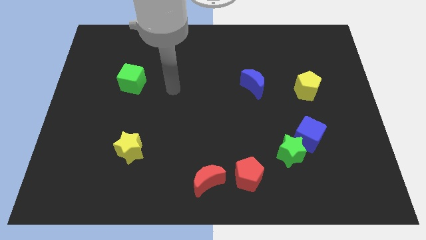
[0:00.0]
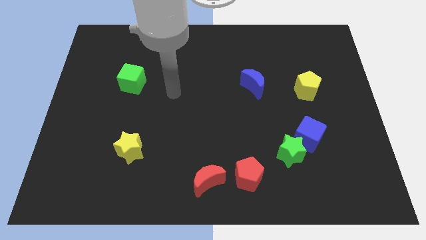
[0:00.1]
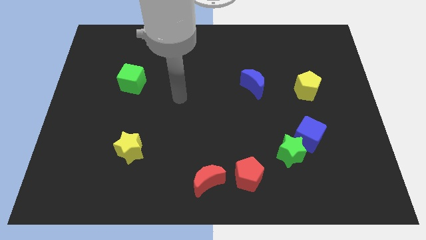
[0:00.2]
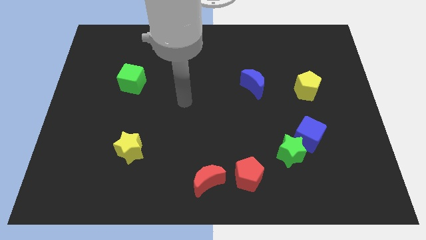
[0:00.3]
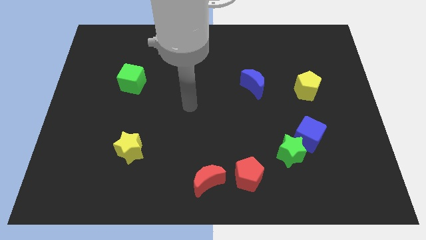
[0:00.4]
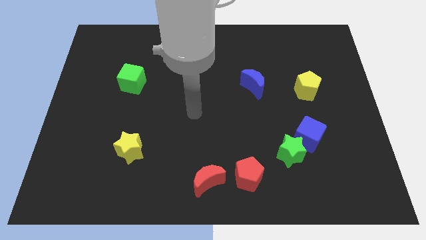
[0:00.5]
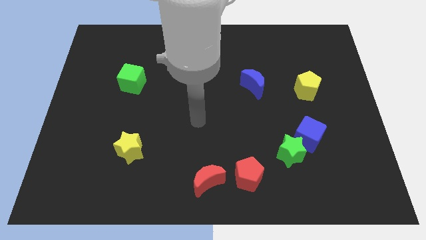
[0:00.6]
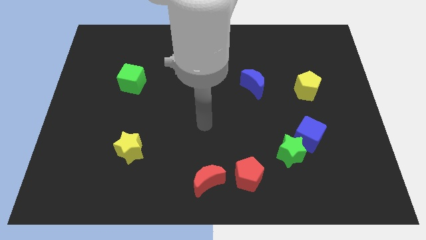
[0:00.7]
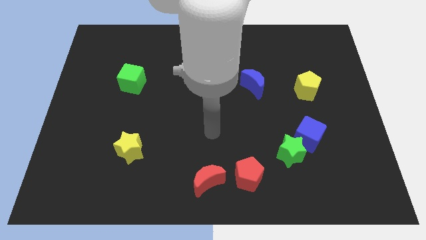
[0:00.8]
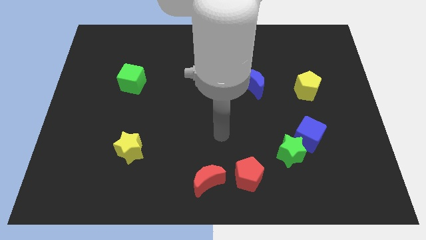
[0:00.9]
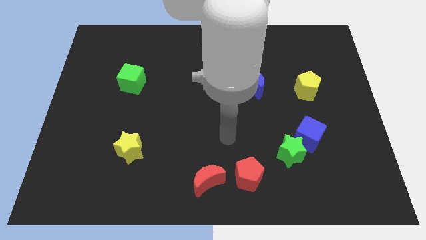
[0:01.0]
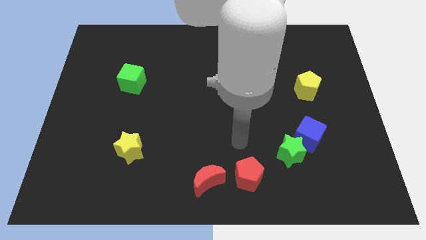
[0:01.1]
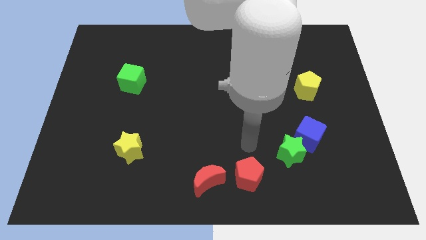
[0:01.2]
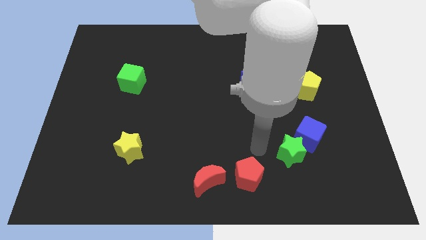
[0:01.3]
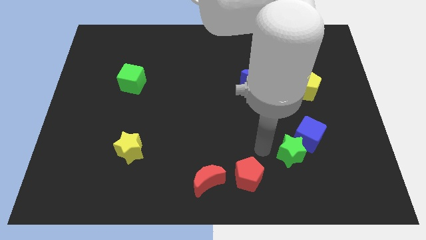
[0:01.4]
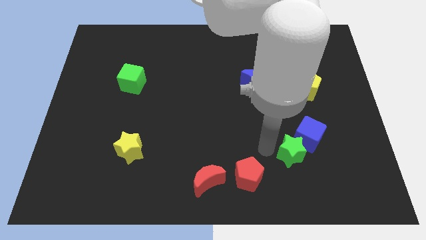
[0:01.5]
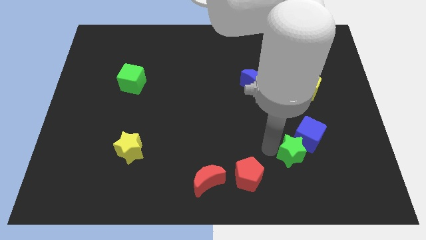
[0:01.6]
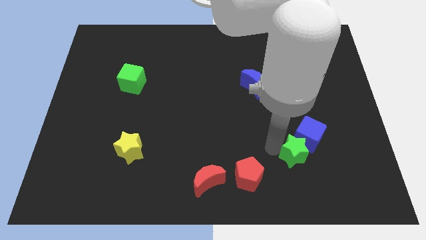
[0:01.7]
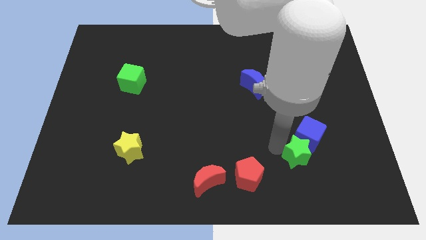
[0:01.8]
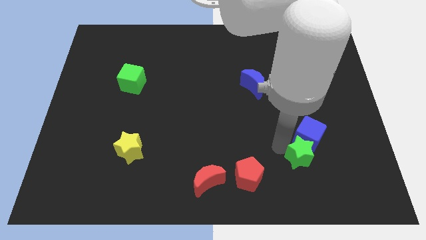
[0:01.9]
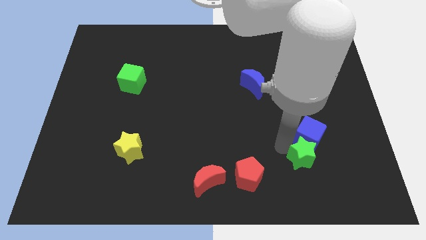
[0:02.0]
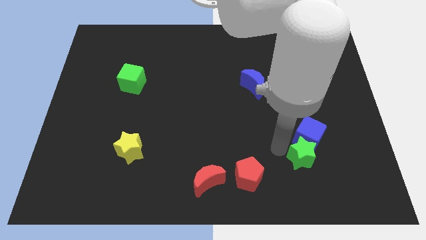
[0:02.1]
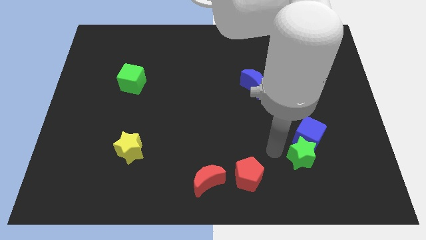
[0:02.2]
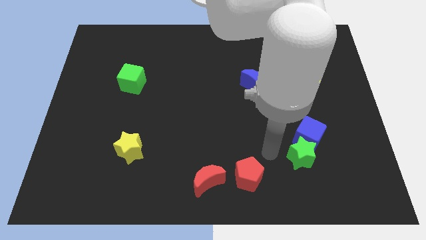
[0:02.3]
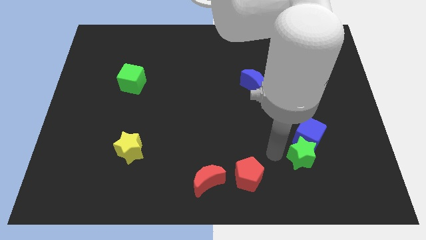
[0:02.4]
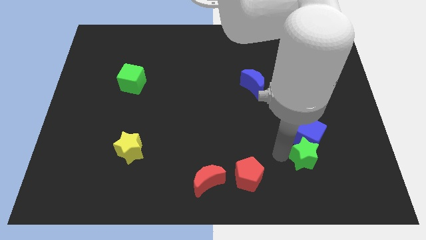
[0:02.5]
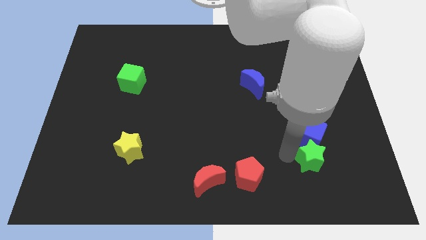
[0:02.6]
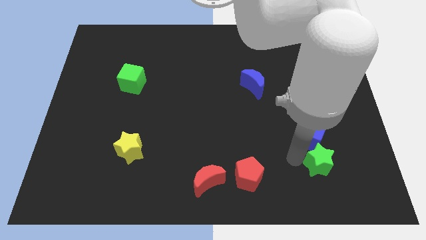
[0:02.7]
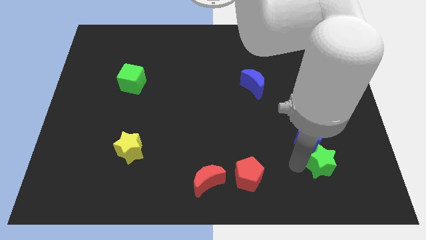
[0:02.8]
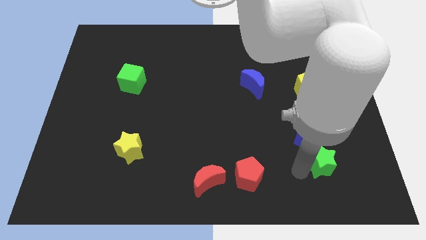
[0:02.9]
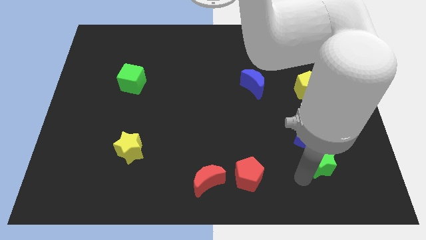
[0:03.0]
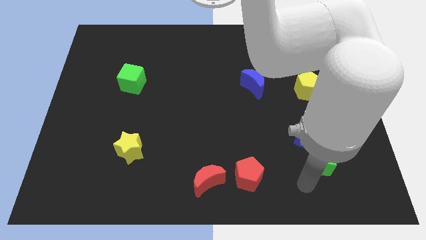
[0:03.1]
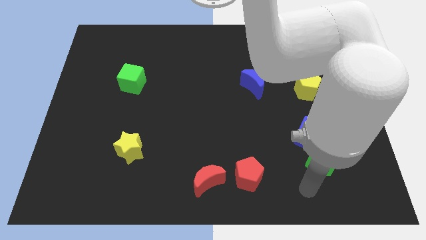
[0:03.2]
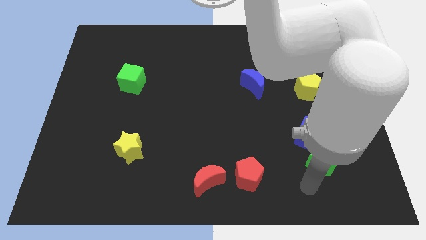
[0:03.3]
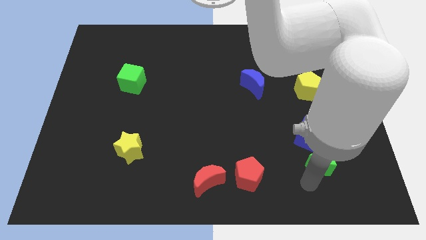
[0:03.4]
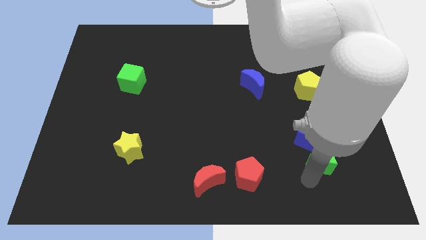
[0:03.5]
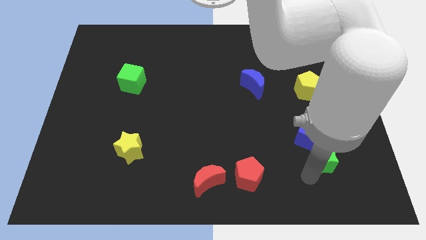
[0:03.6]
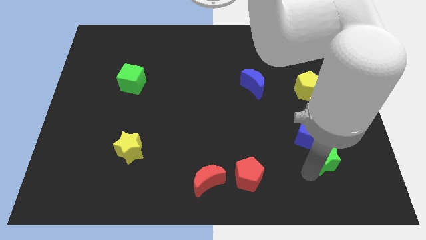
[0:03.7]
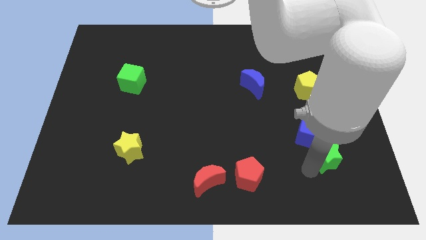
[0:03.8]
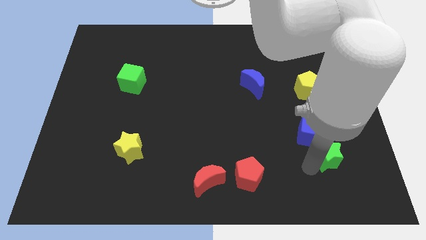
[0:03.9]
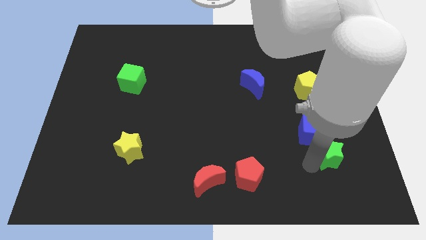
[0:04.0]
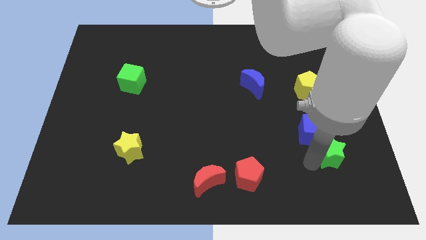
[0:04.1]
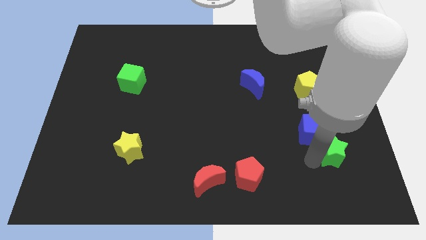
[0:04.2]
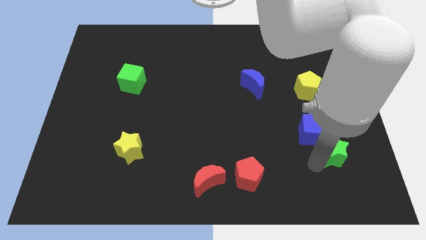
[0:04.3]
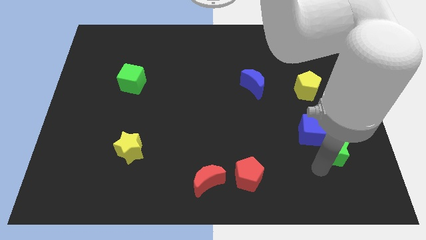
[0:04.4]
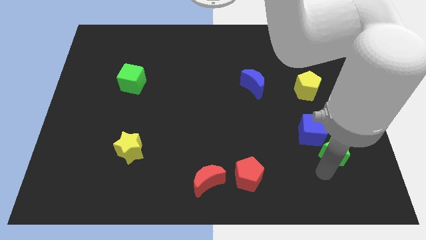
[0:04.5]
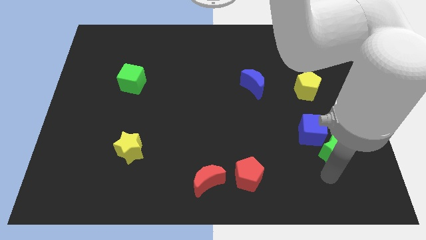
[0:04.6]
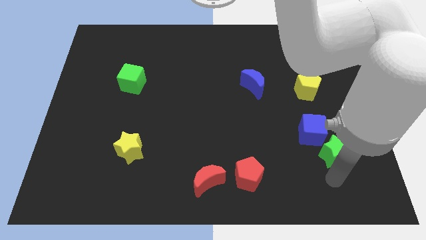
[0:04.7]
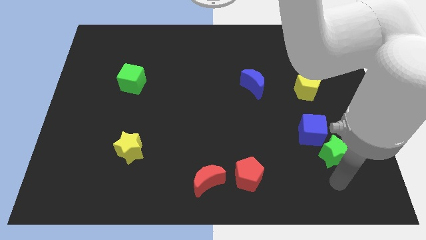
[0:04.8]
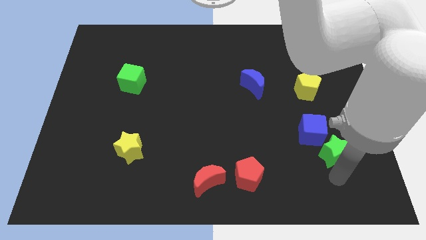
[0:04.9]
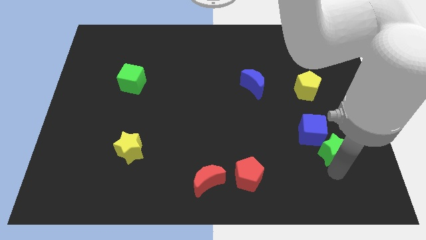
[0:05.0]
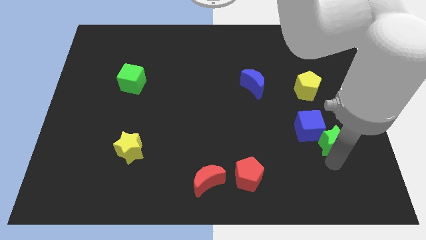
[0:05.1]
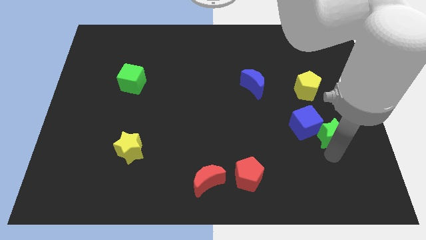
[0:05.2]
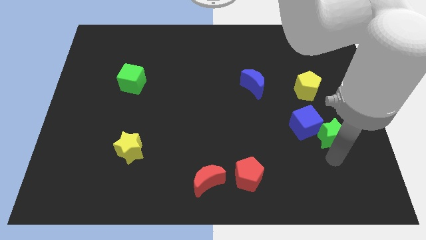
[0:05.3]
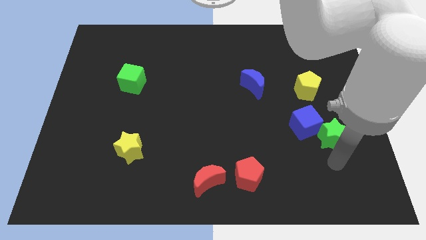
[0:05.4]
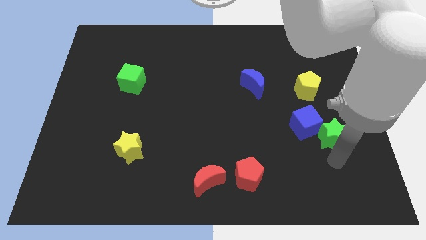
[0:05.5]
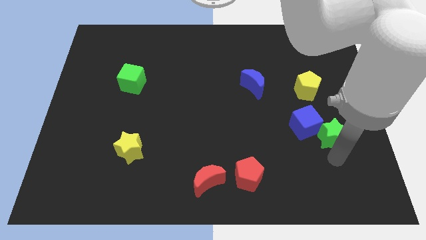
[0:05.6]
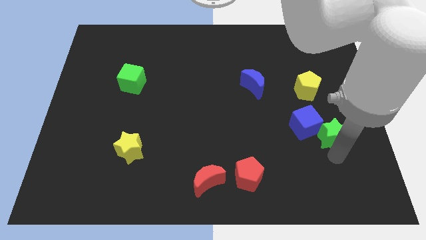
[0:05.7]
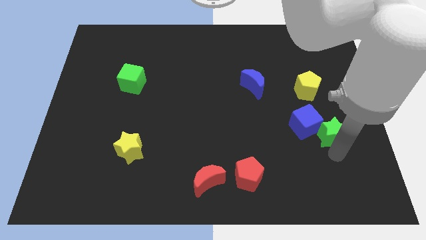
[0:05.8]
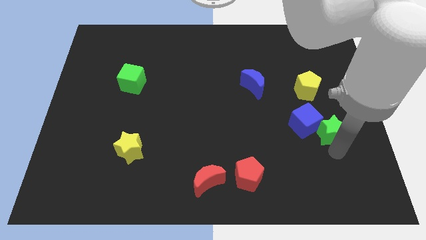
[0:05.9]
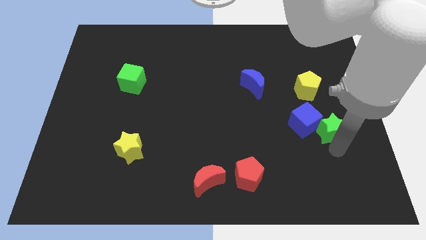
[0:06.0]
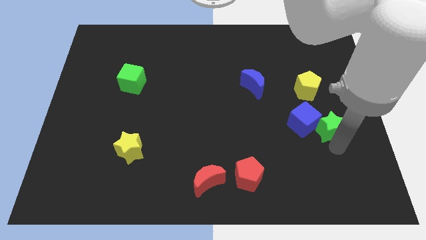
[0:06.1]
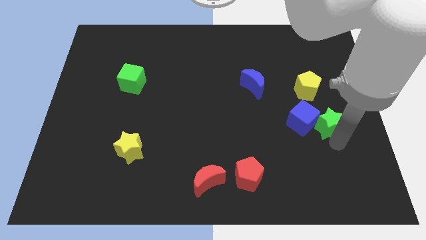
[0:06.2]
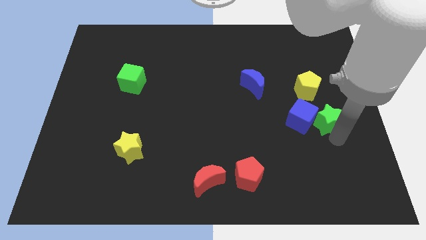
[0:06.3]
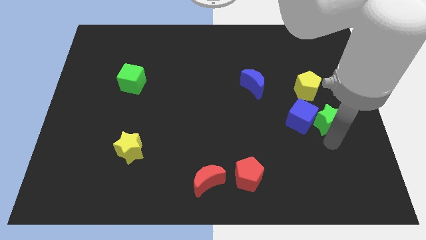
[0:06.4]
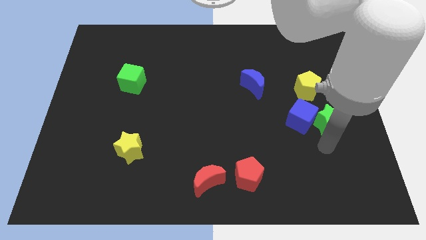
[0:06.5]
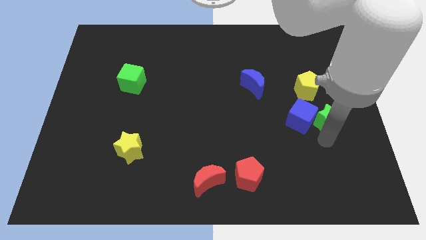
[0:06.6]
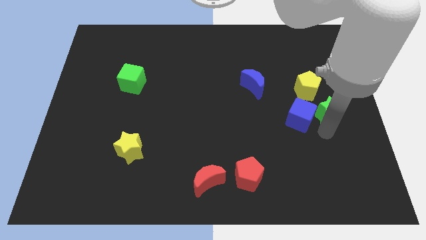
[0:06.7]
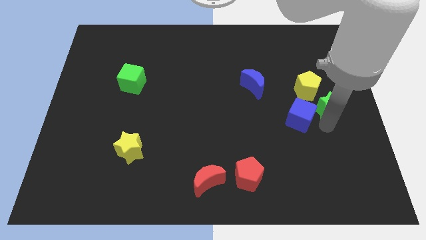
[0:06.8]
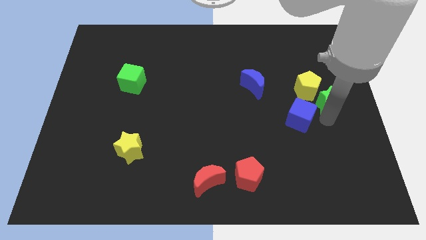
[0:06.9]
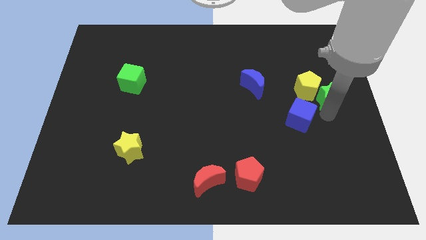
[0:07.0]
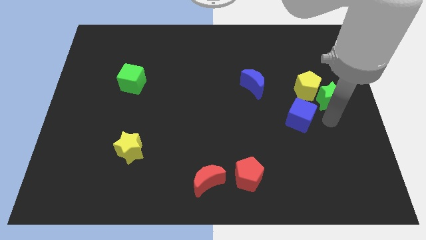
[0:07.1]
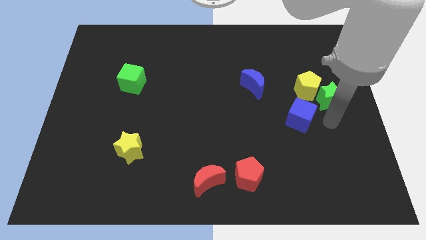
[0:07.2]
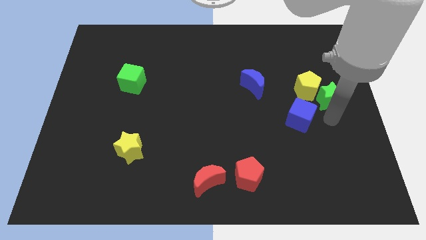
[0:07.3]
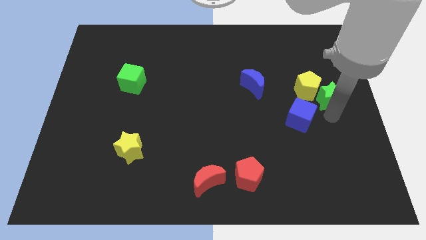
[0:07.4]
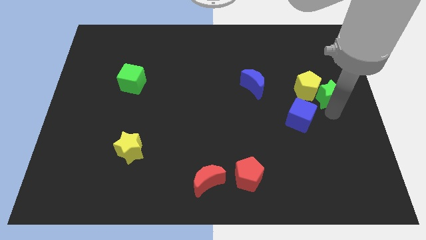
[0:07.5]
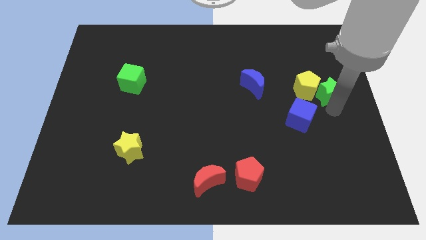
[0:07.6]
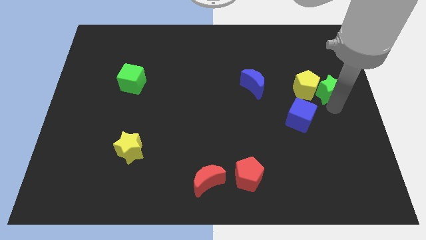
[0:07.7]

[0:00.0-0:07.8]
put the green star diagonally up and to the right of the yellow pentagon

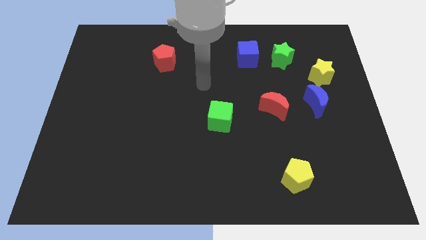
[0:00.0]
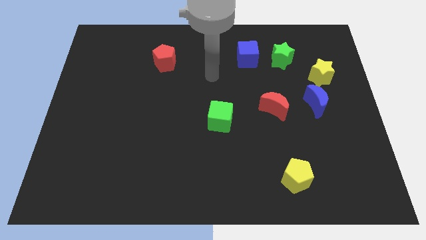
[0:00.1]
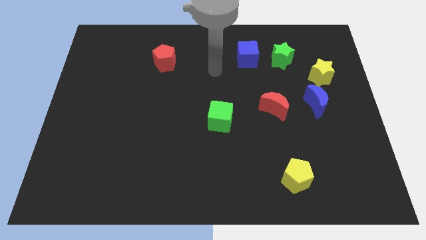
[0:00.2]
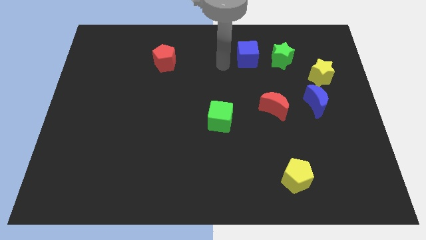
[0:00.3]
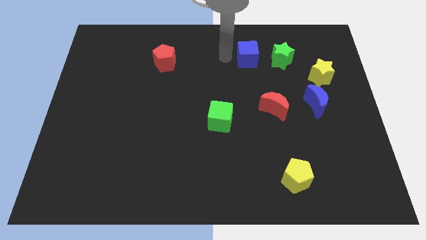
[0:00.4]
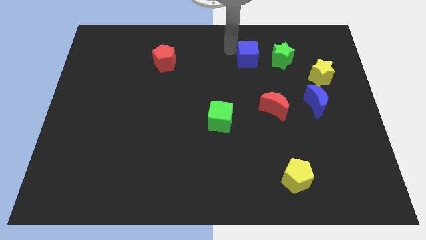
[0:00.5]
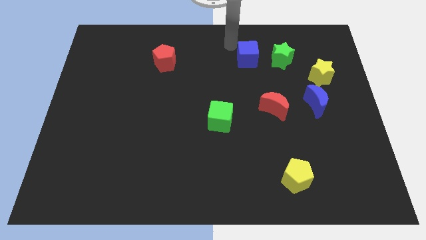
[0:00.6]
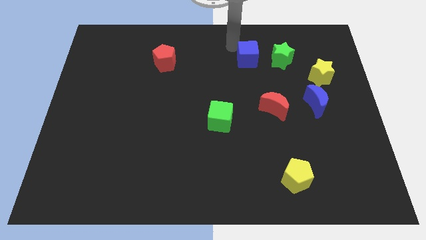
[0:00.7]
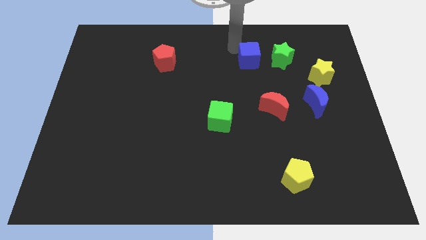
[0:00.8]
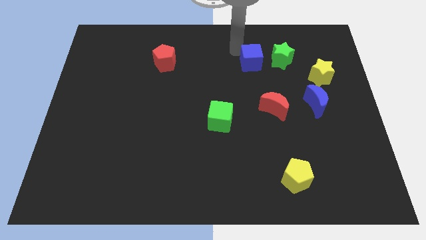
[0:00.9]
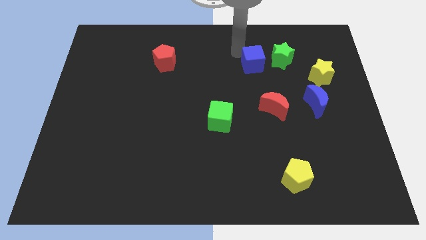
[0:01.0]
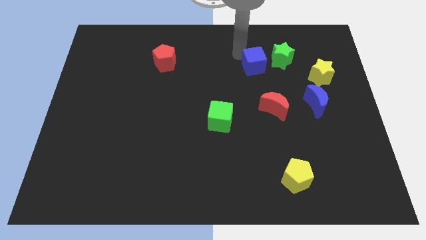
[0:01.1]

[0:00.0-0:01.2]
put the blue cube above the red moon
